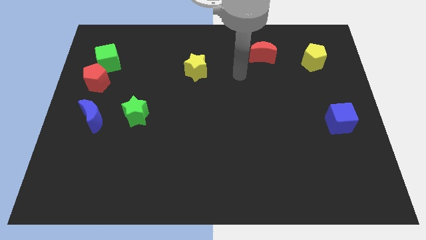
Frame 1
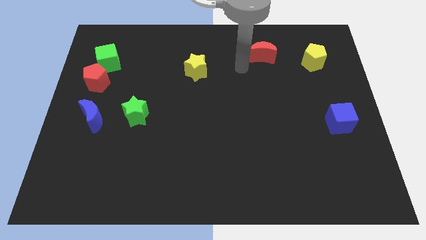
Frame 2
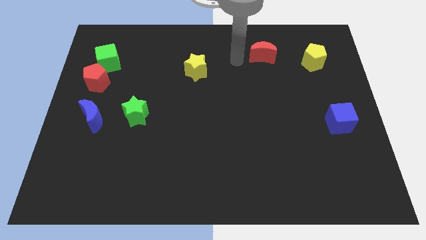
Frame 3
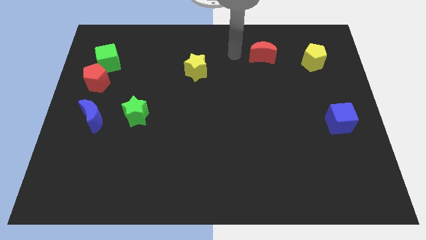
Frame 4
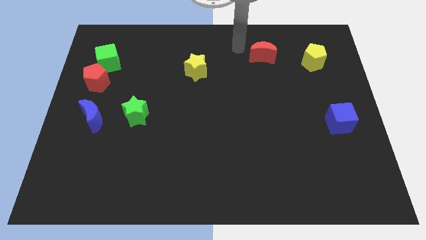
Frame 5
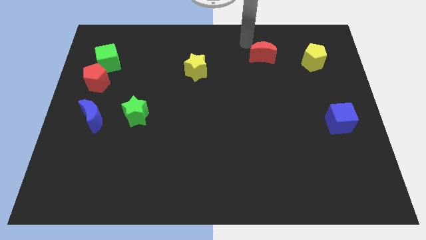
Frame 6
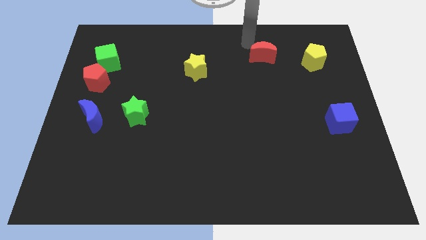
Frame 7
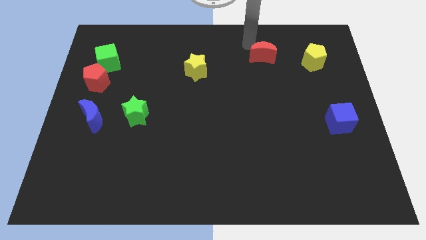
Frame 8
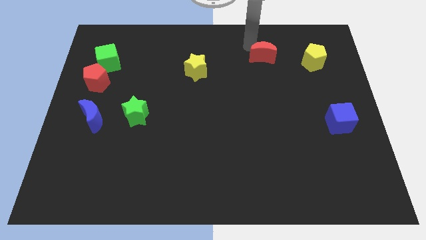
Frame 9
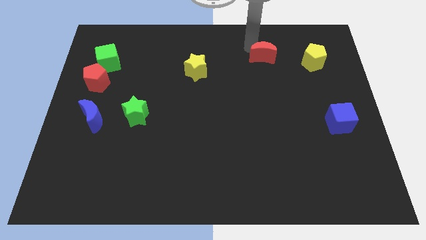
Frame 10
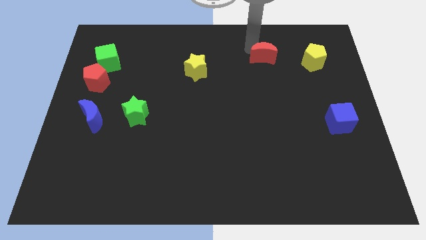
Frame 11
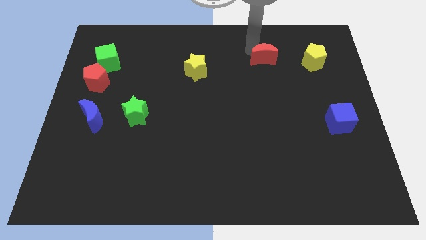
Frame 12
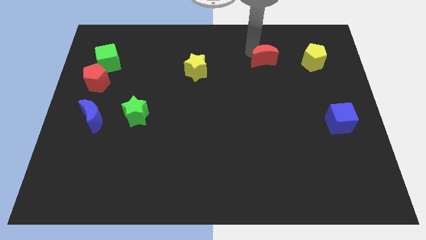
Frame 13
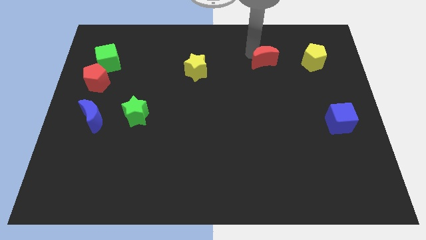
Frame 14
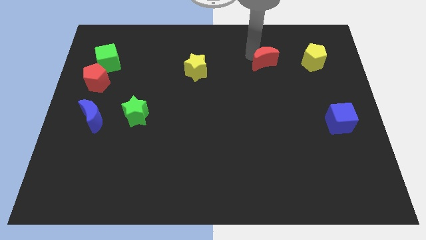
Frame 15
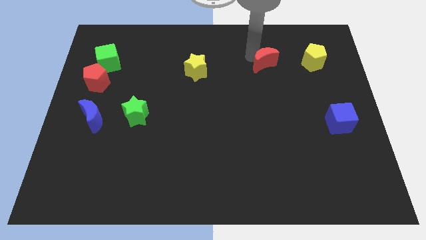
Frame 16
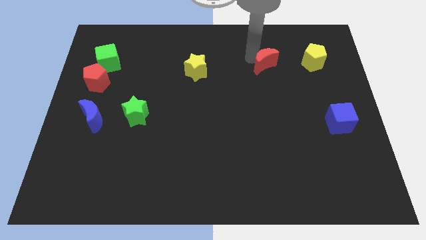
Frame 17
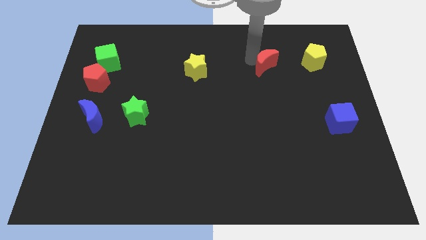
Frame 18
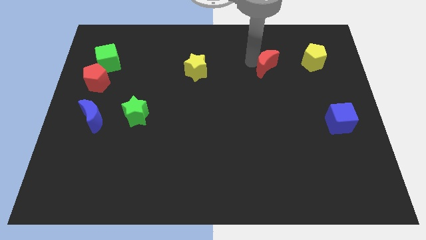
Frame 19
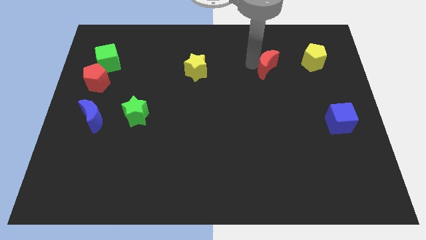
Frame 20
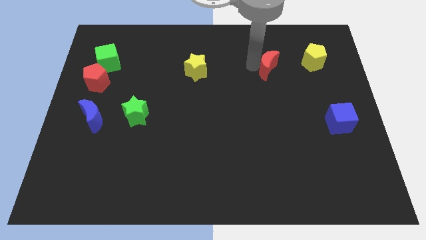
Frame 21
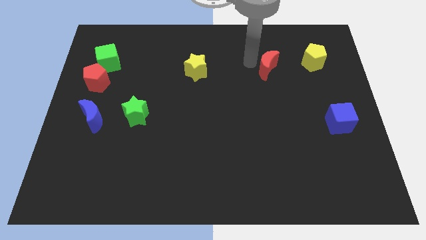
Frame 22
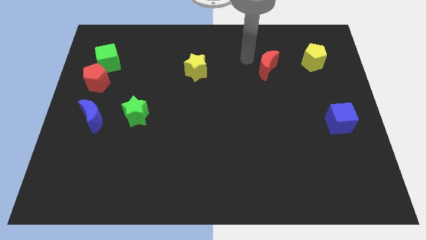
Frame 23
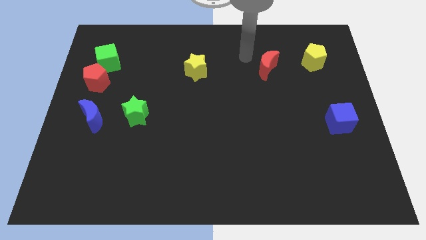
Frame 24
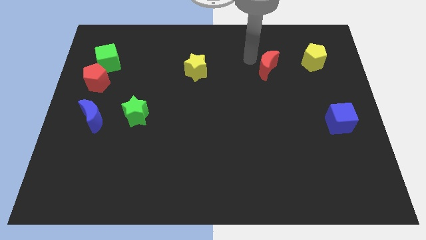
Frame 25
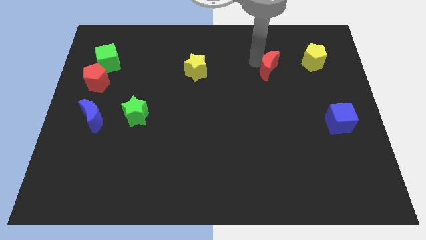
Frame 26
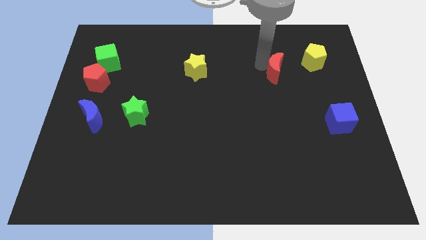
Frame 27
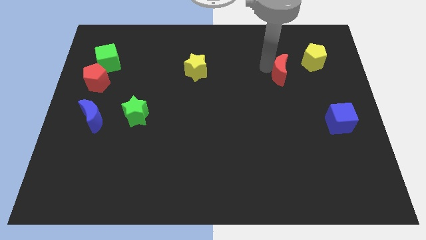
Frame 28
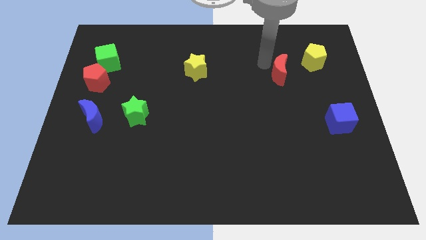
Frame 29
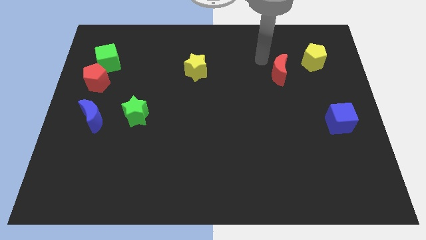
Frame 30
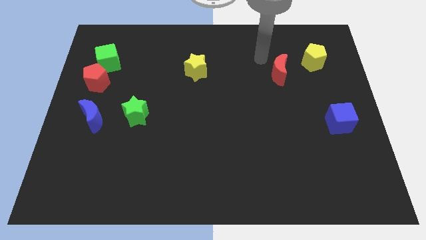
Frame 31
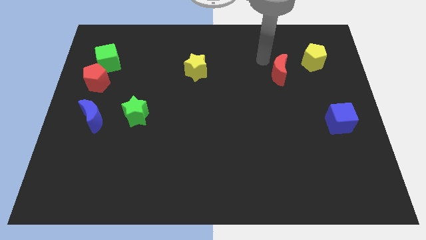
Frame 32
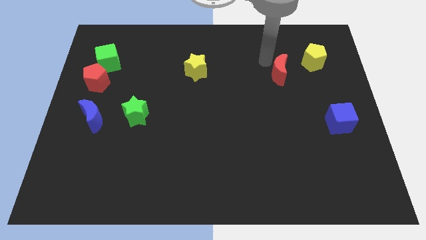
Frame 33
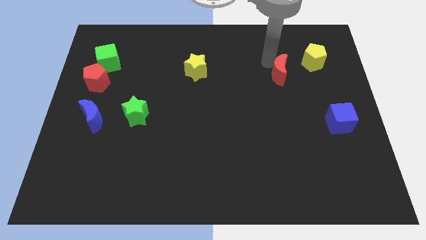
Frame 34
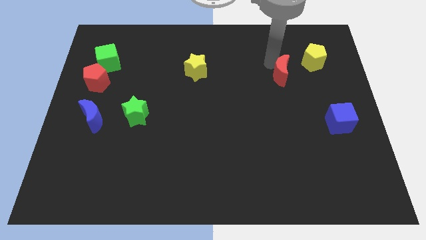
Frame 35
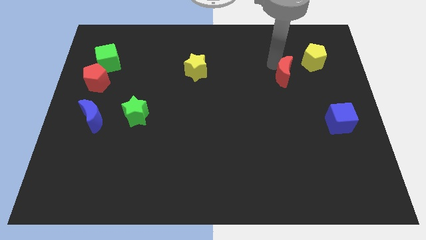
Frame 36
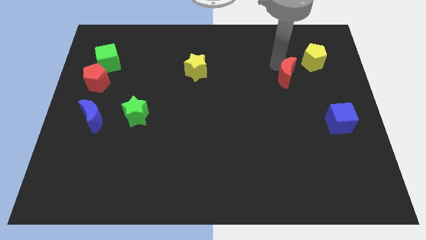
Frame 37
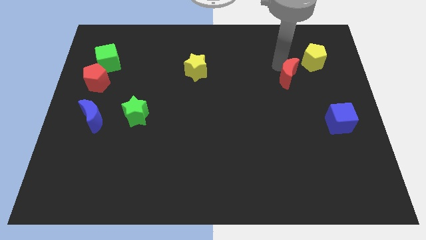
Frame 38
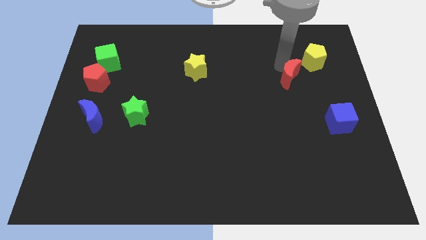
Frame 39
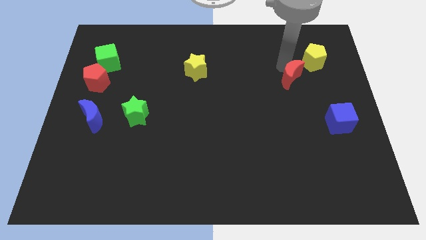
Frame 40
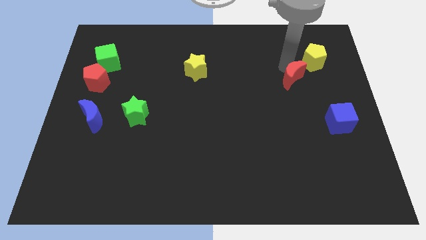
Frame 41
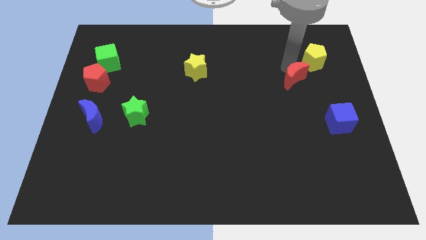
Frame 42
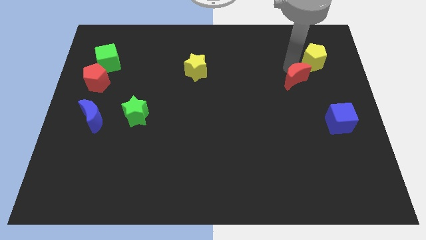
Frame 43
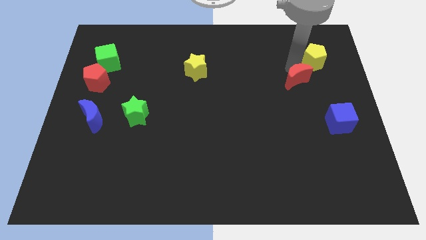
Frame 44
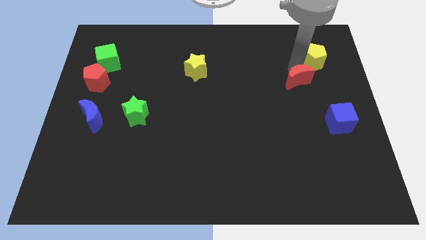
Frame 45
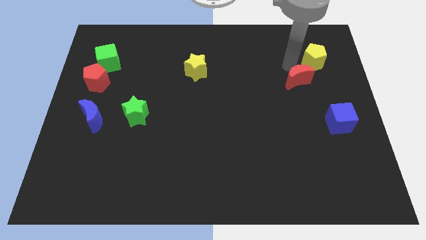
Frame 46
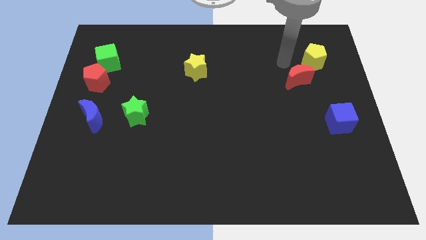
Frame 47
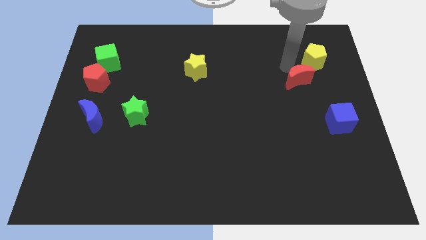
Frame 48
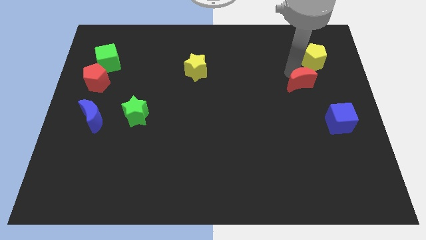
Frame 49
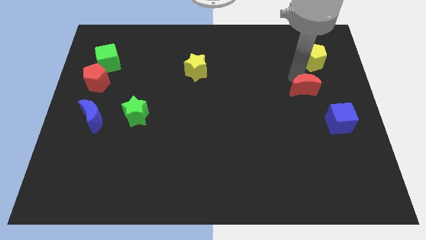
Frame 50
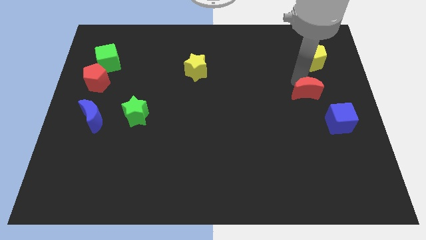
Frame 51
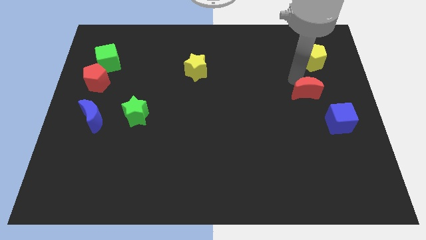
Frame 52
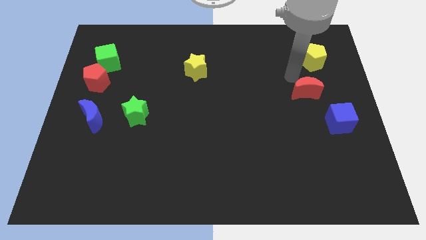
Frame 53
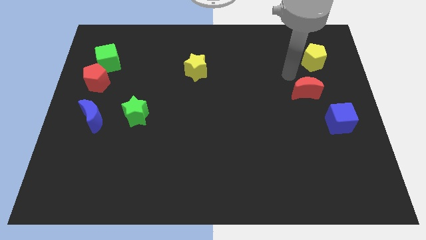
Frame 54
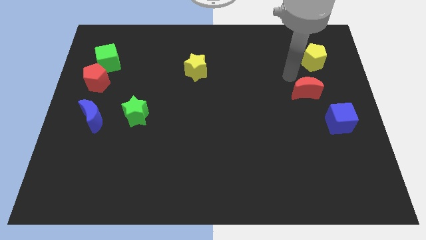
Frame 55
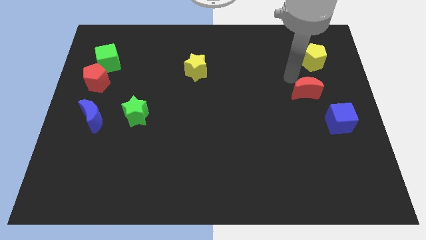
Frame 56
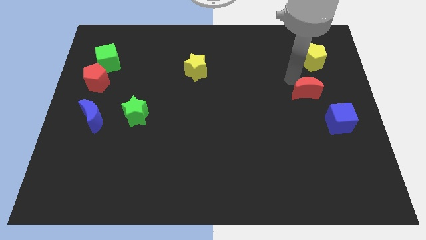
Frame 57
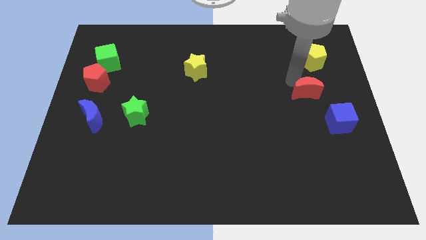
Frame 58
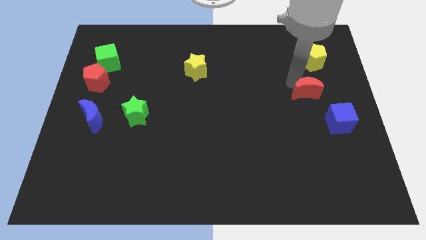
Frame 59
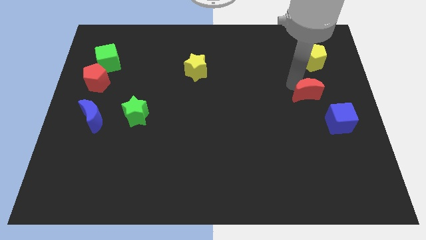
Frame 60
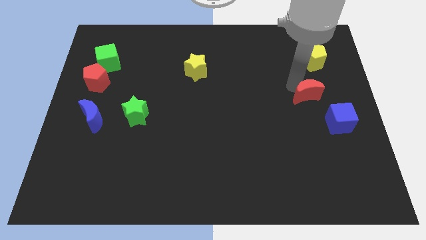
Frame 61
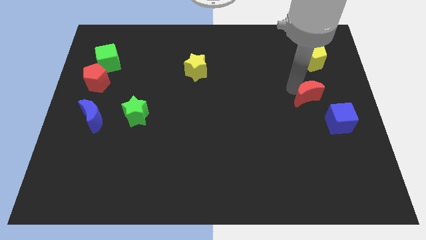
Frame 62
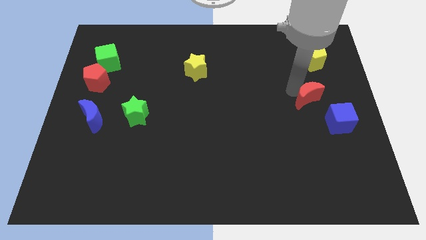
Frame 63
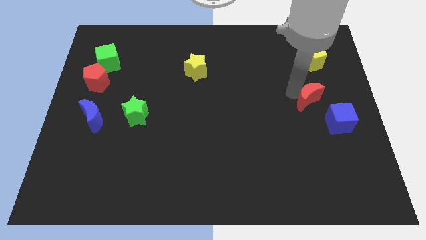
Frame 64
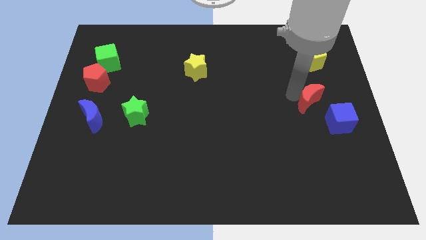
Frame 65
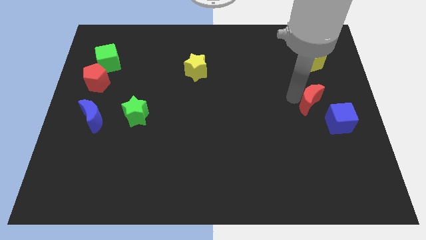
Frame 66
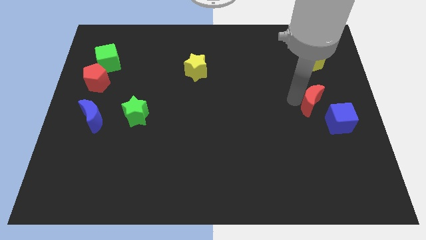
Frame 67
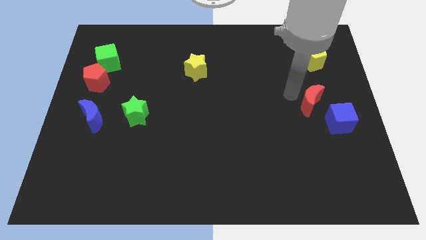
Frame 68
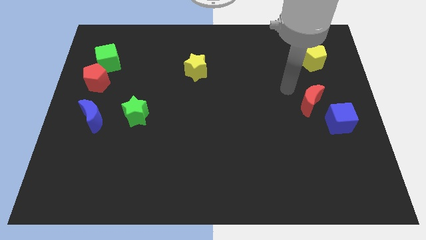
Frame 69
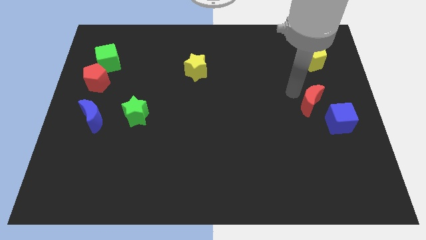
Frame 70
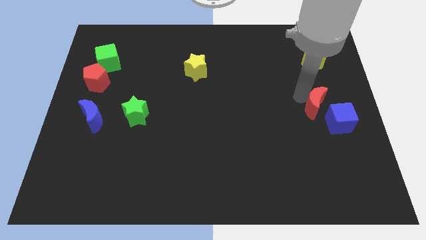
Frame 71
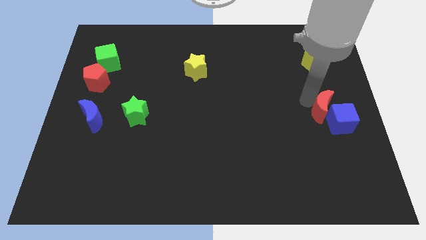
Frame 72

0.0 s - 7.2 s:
slide the red moon towards the blue cube
